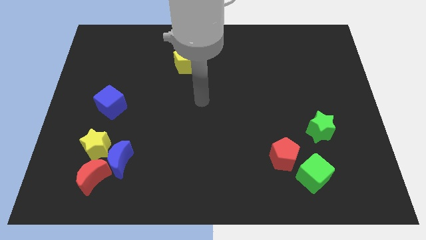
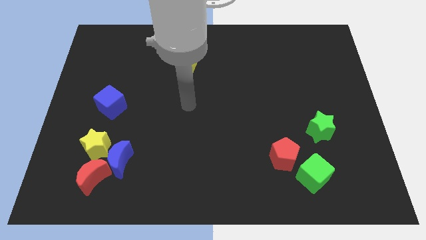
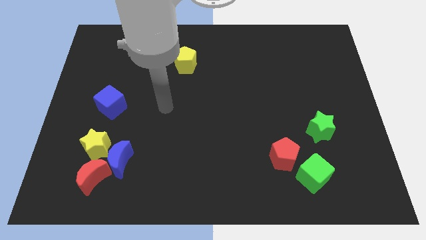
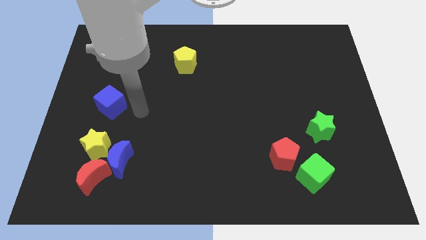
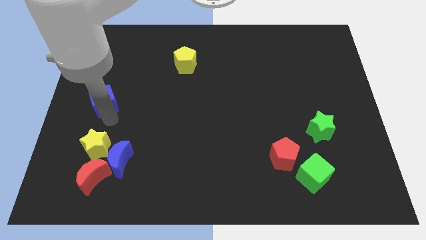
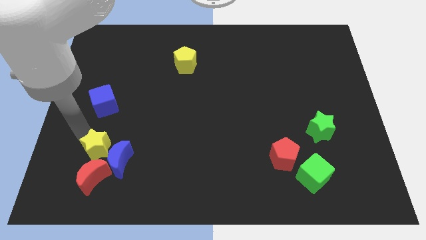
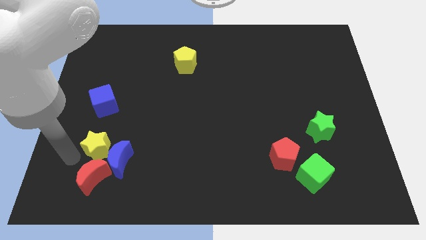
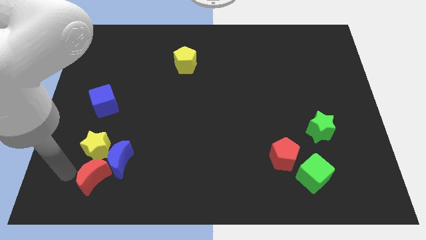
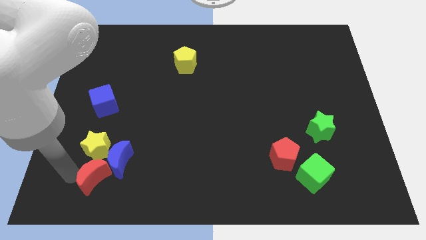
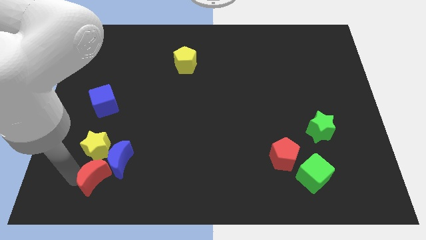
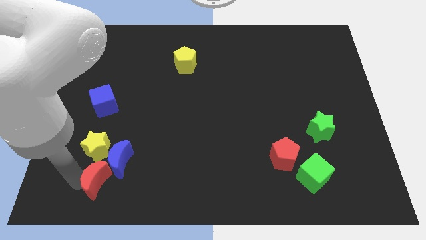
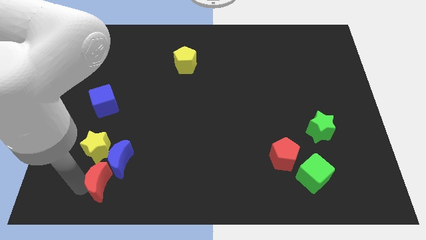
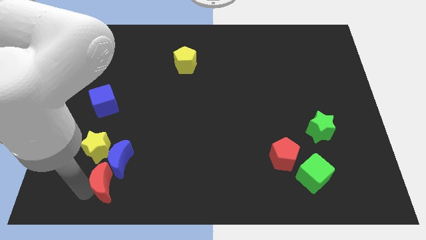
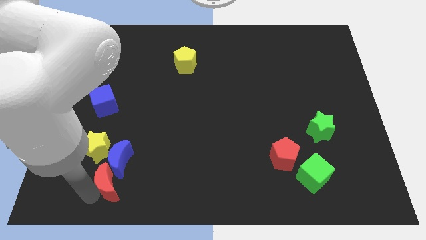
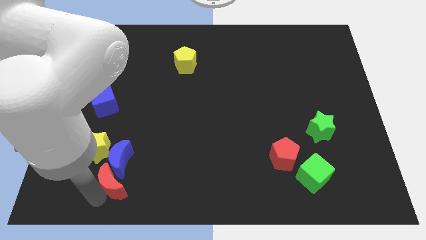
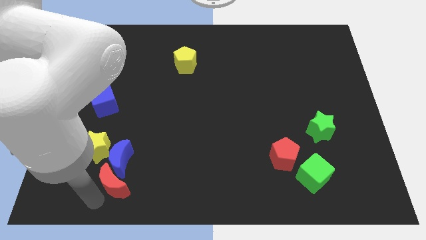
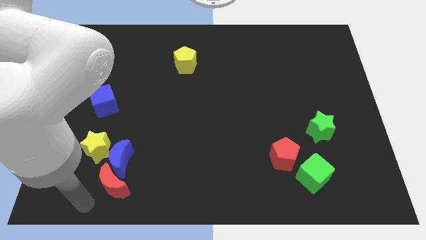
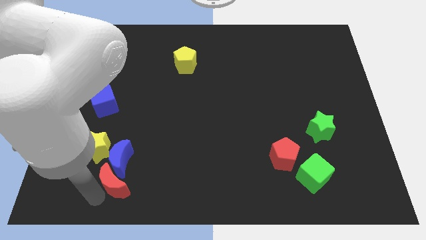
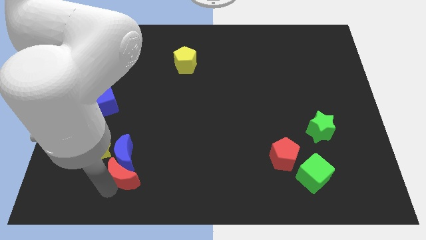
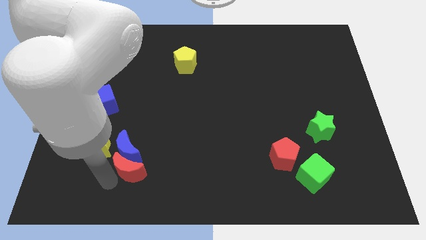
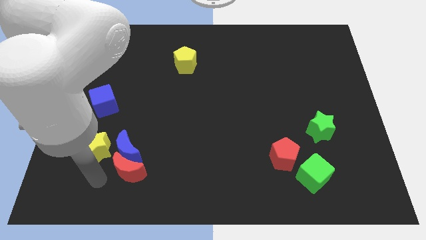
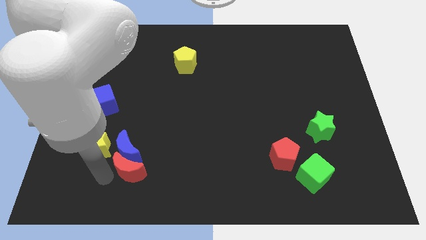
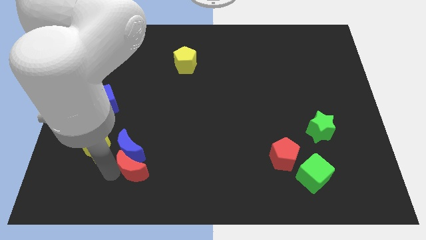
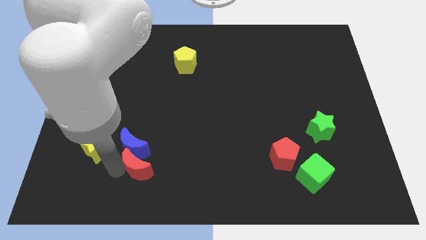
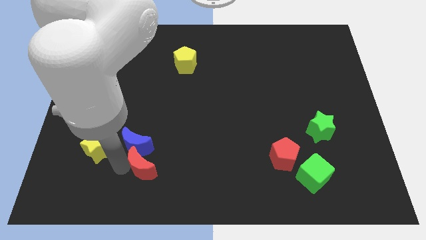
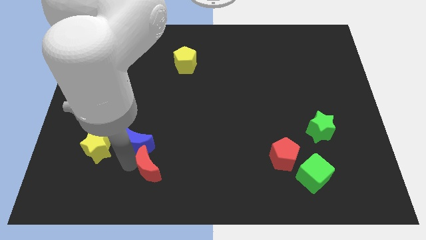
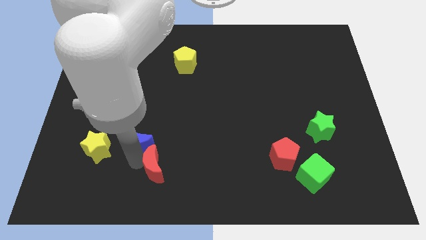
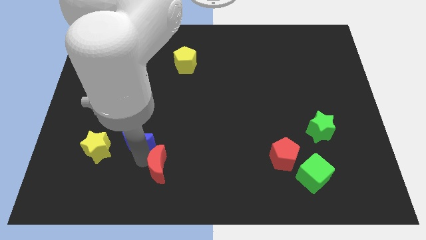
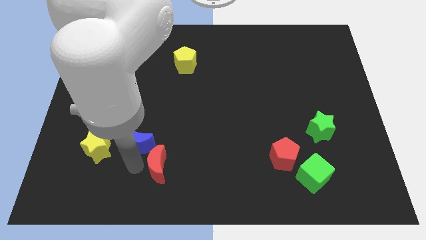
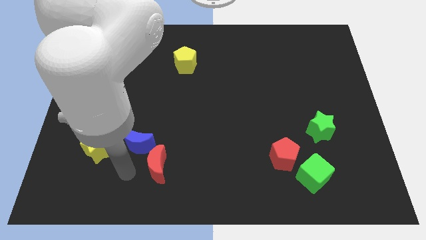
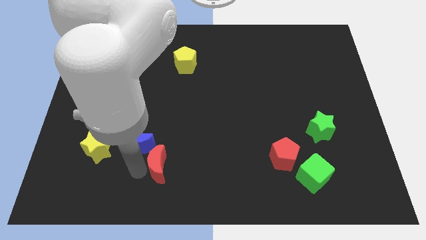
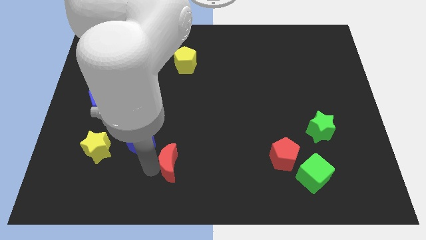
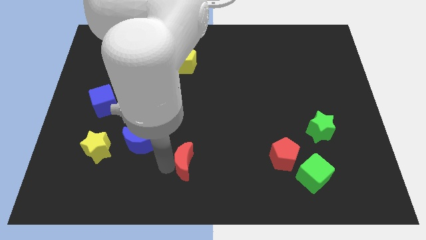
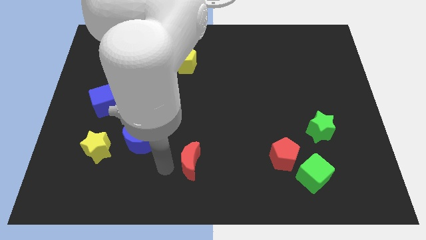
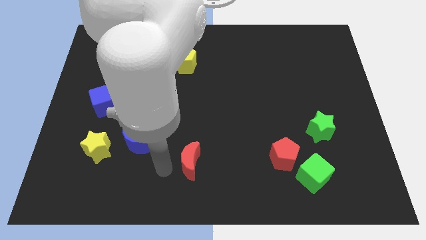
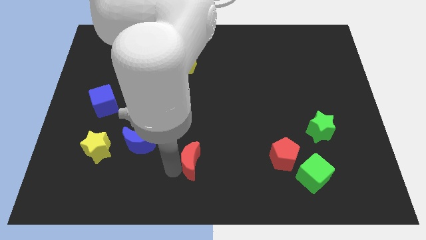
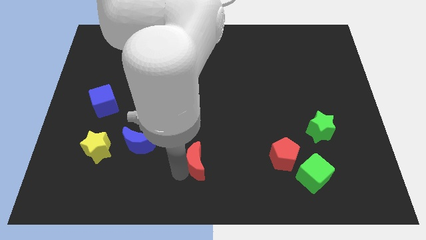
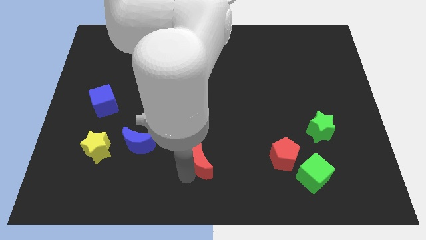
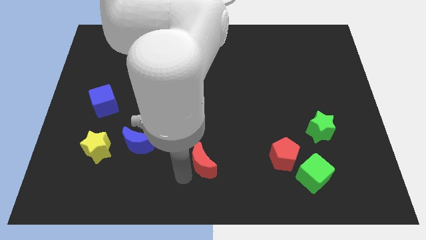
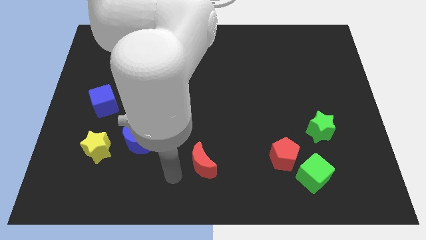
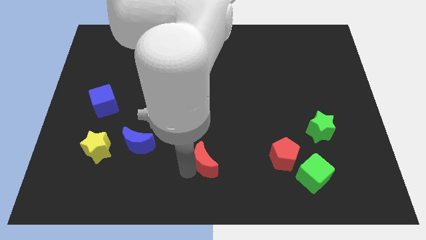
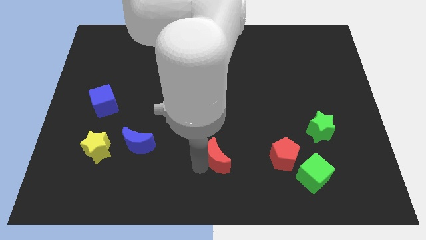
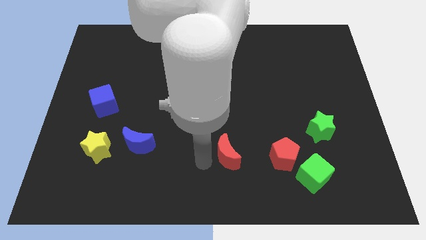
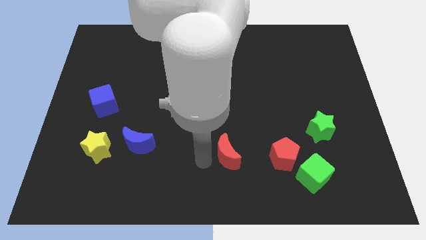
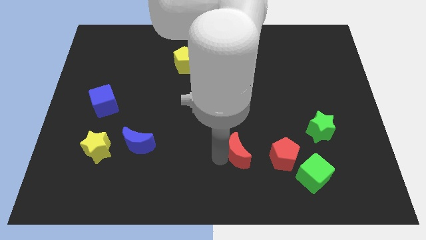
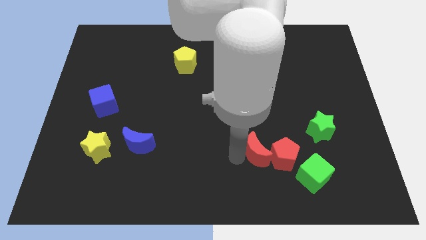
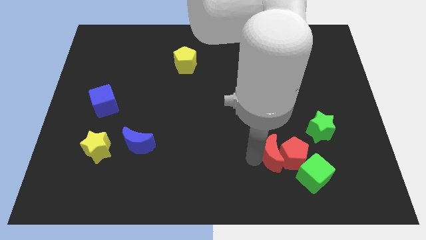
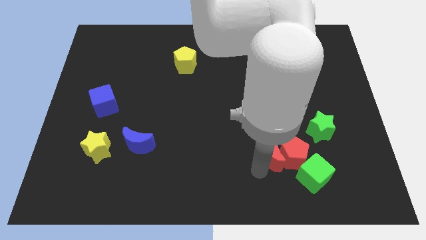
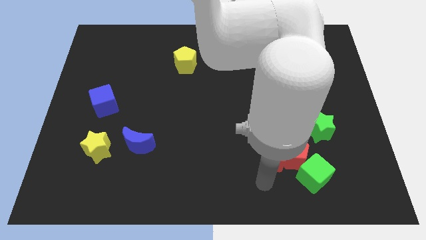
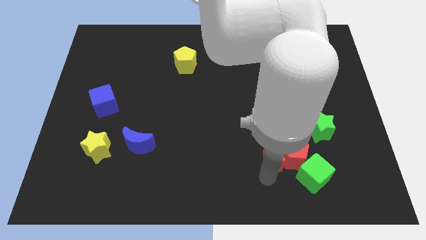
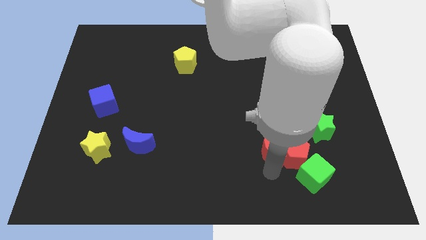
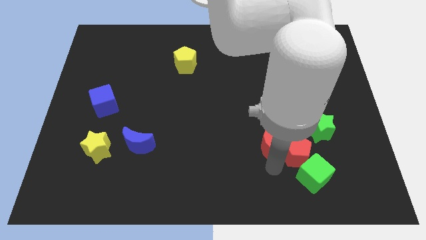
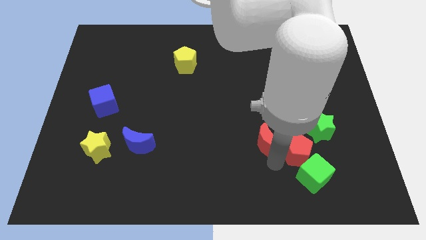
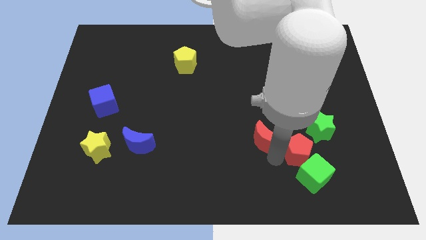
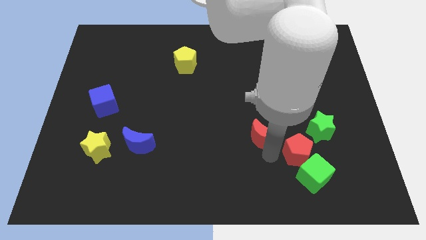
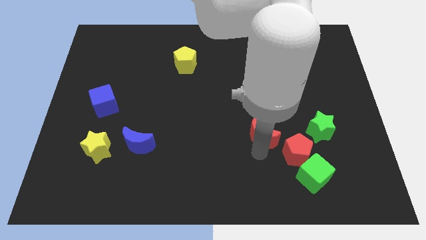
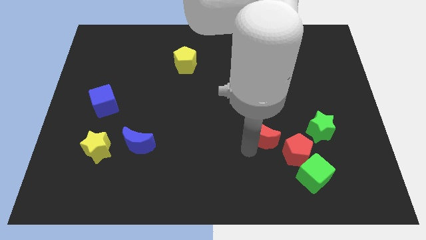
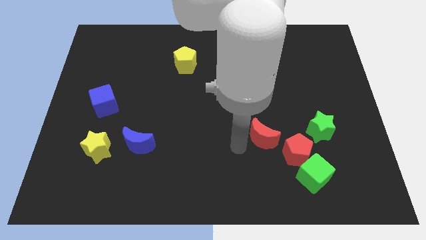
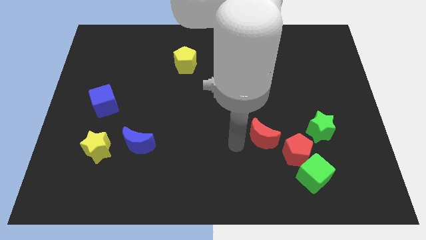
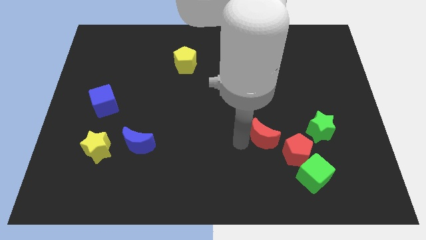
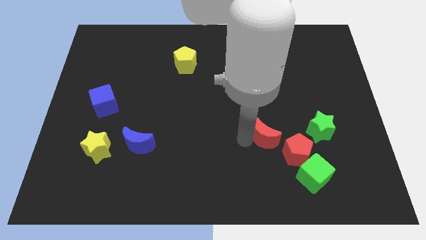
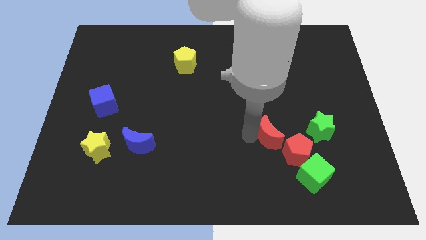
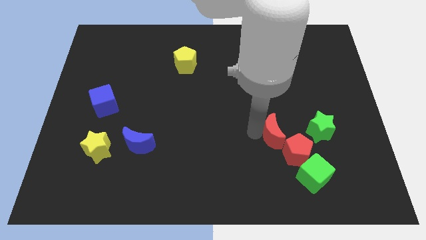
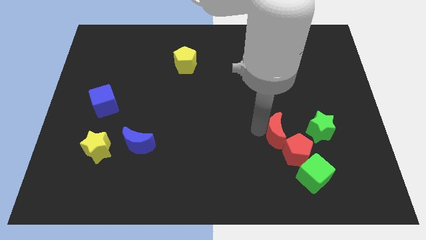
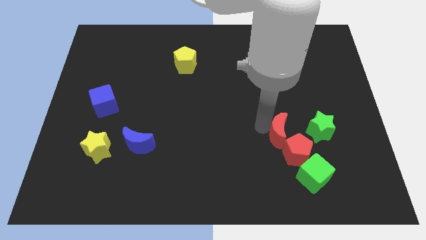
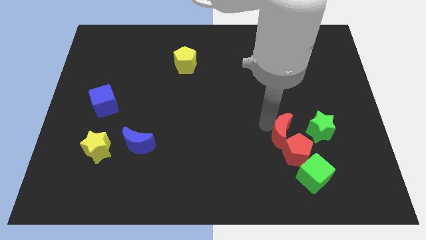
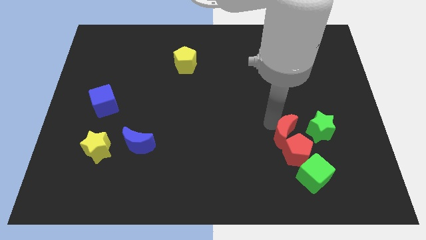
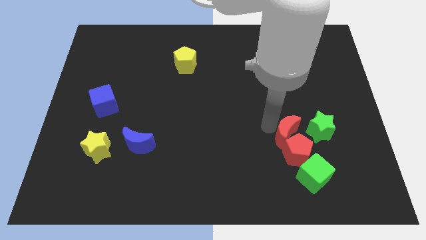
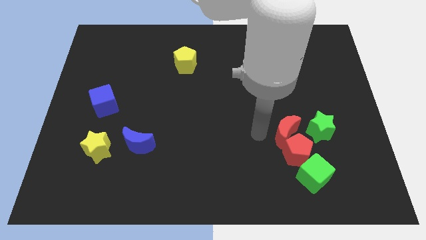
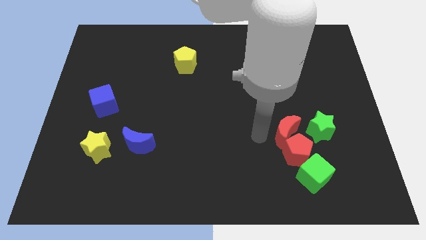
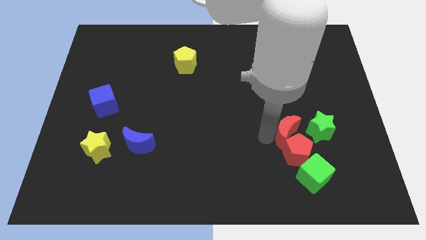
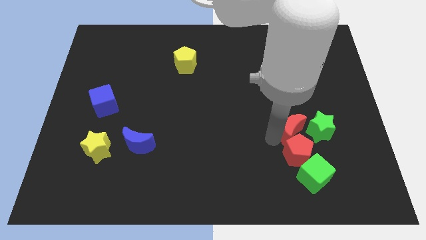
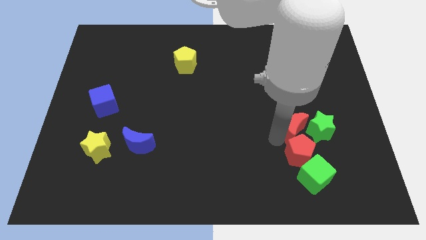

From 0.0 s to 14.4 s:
move the red moon towards the green star

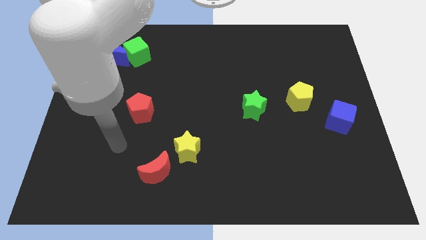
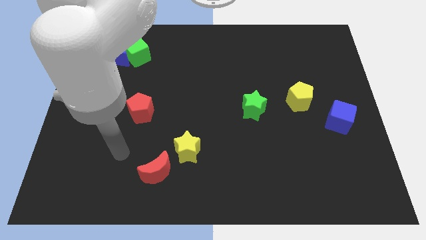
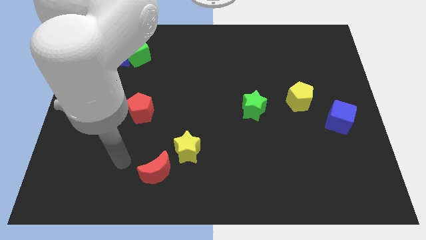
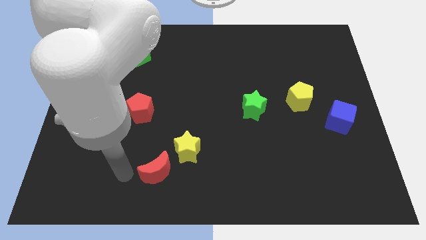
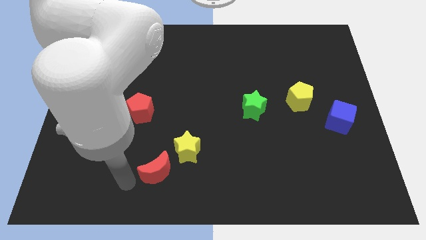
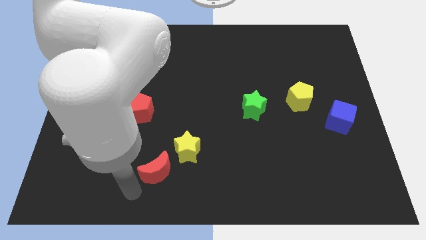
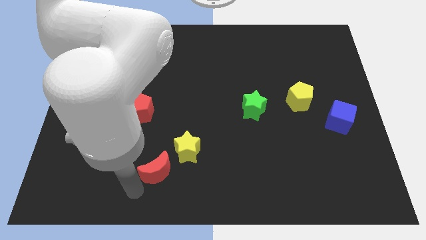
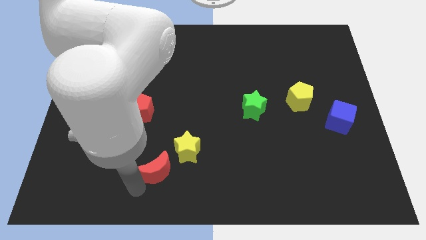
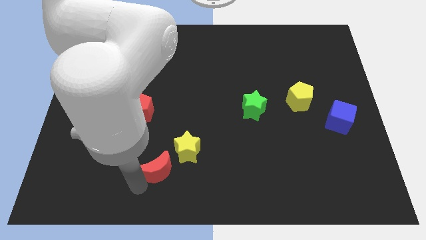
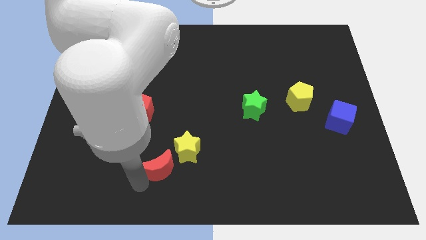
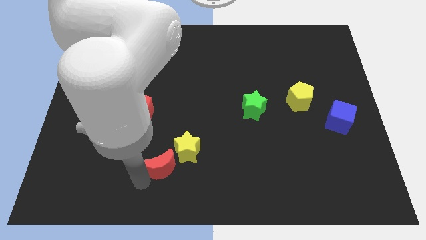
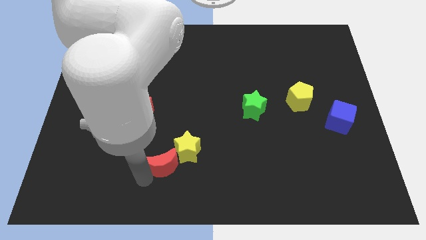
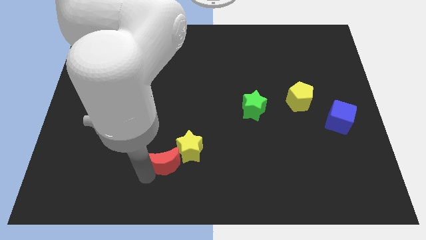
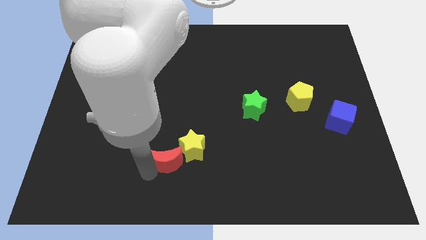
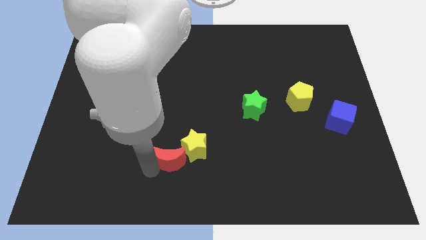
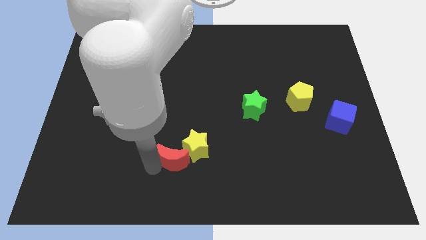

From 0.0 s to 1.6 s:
put the red moon close to the yellow star
